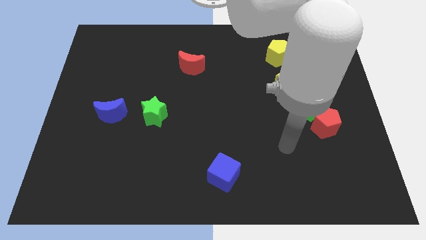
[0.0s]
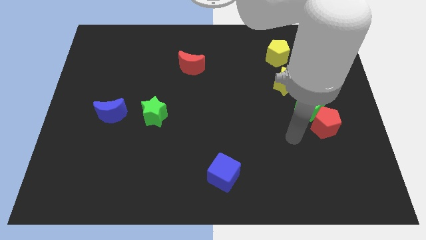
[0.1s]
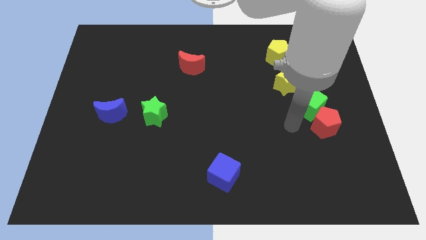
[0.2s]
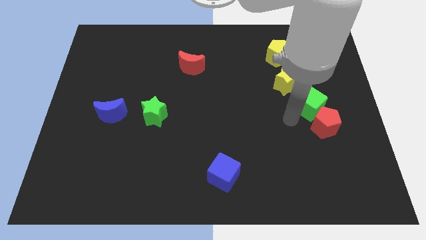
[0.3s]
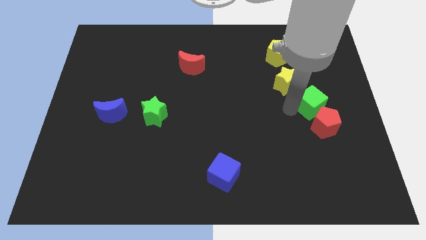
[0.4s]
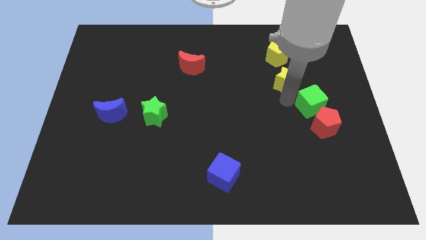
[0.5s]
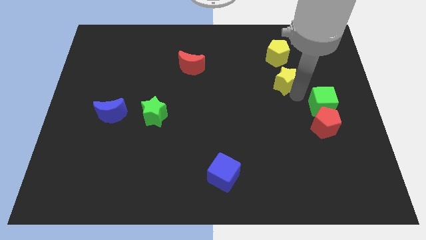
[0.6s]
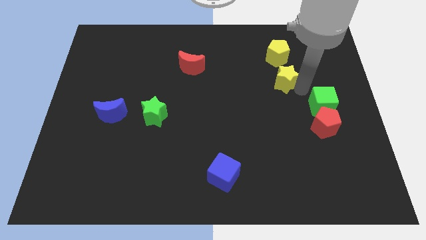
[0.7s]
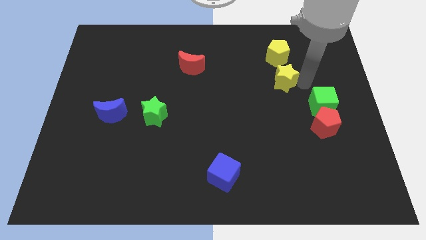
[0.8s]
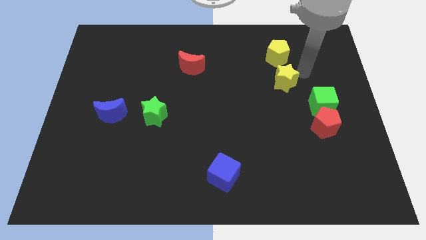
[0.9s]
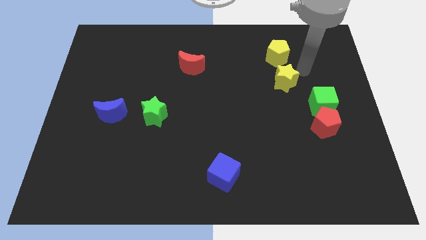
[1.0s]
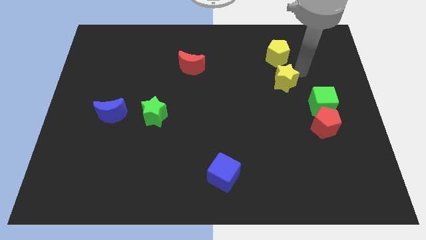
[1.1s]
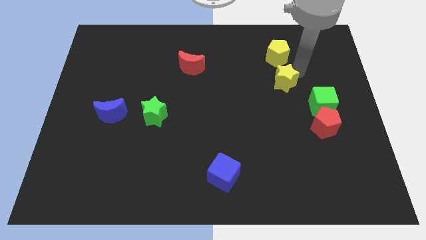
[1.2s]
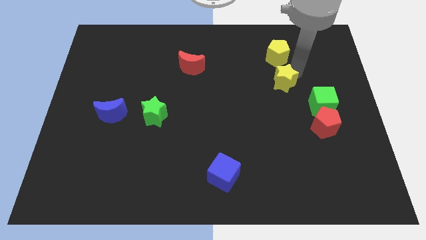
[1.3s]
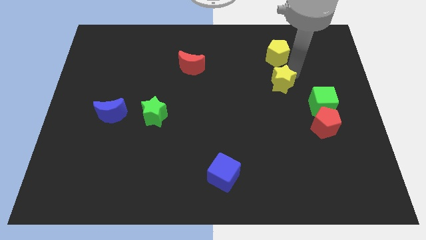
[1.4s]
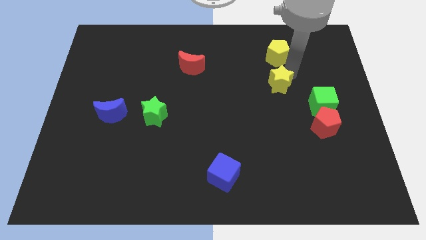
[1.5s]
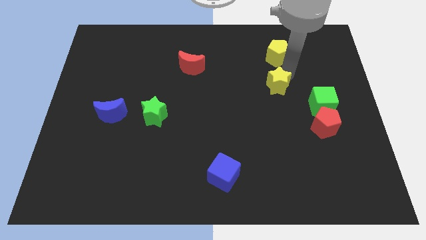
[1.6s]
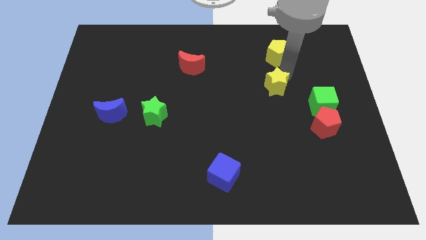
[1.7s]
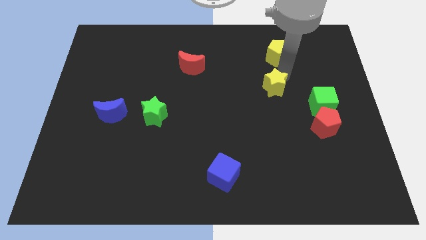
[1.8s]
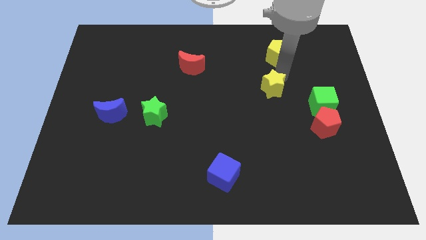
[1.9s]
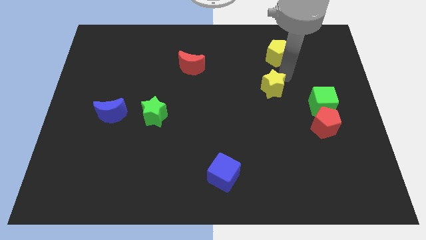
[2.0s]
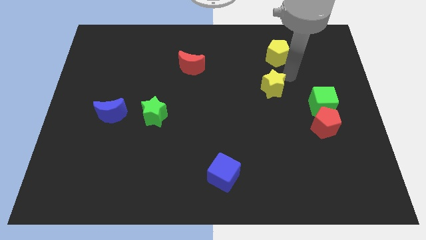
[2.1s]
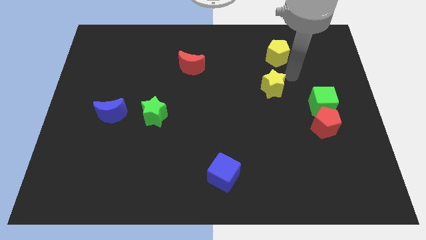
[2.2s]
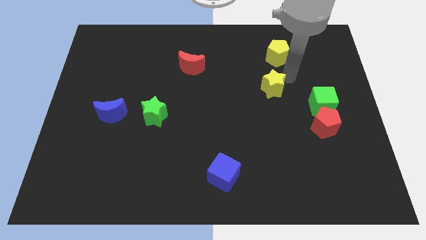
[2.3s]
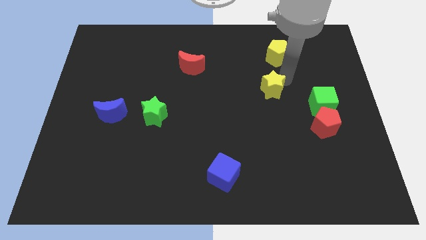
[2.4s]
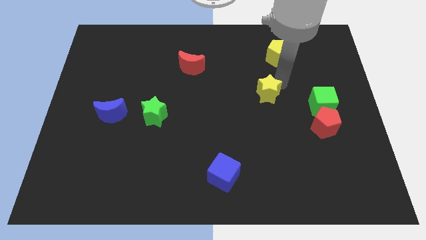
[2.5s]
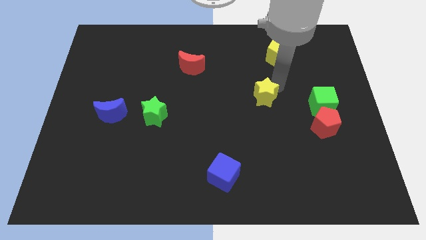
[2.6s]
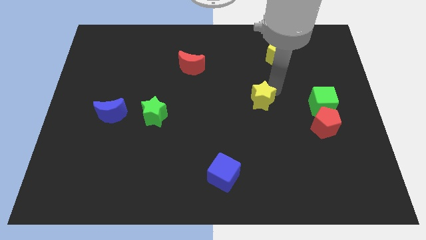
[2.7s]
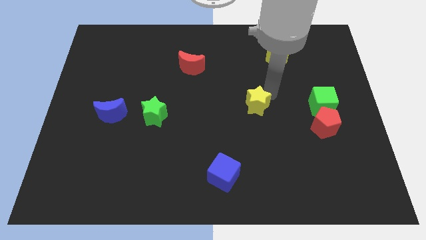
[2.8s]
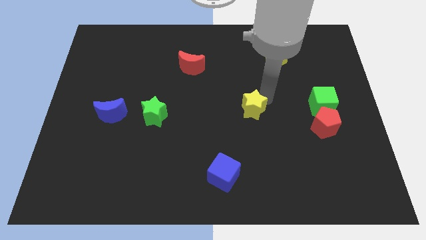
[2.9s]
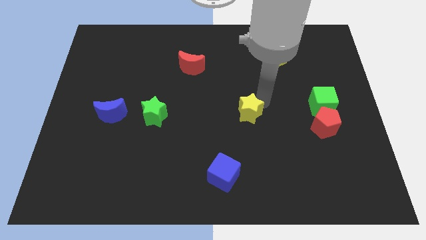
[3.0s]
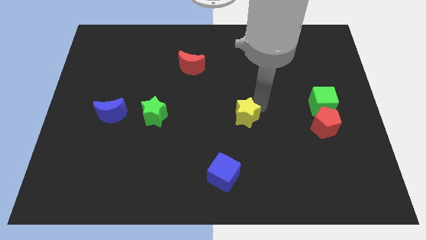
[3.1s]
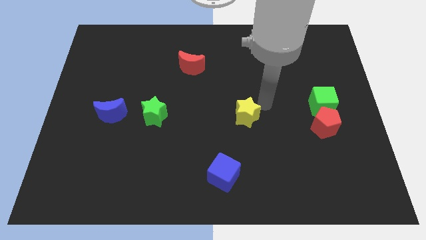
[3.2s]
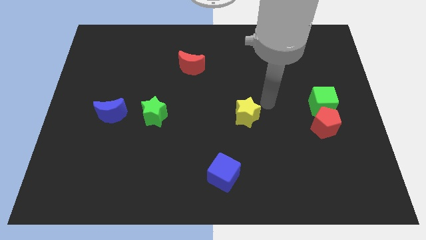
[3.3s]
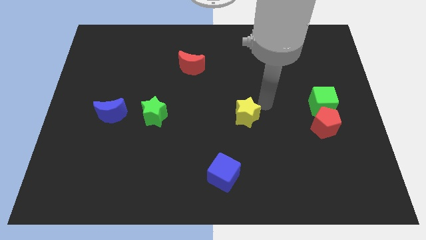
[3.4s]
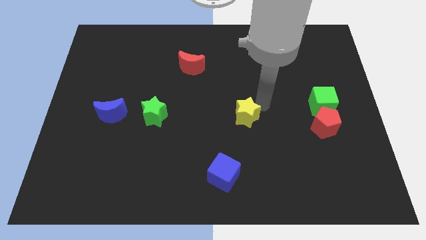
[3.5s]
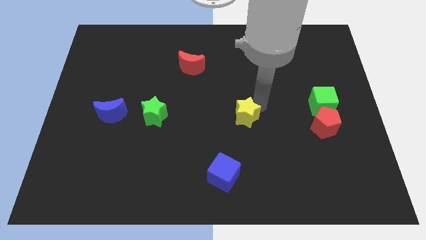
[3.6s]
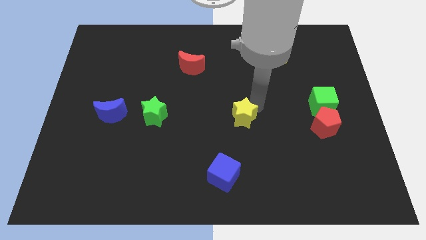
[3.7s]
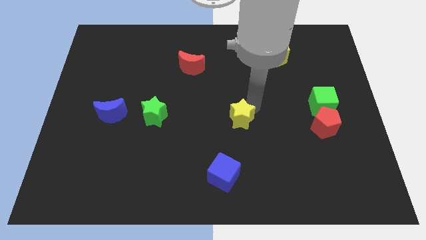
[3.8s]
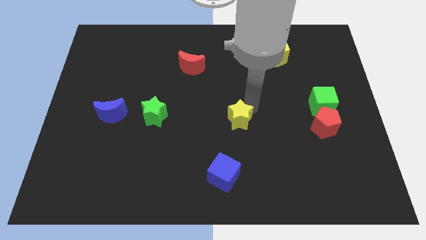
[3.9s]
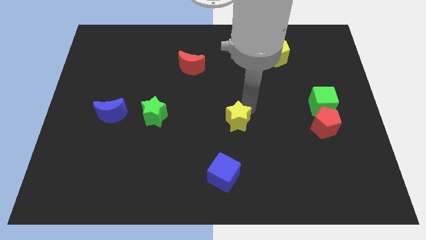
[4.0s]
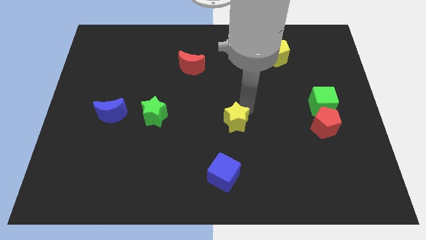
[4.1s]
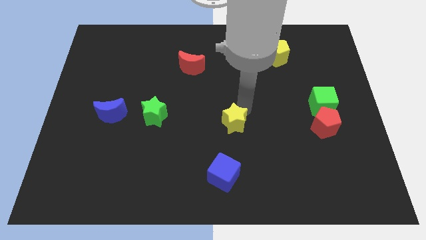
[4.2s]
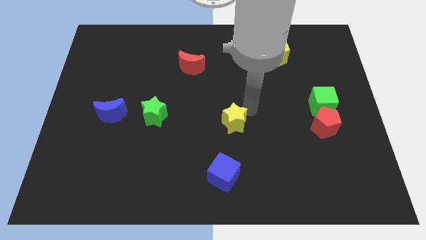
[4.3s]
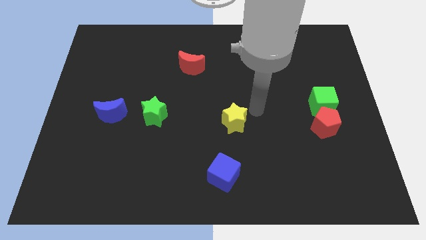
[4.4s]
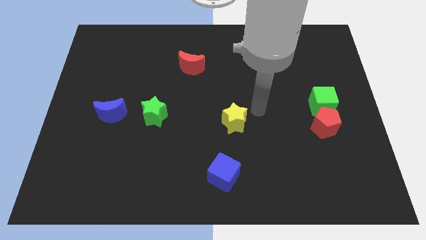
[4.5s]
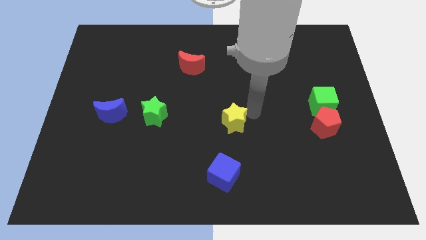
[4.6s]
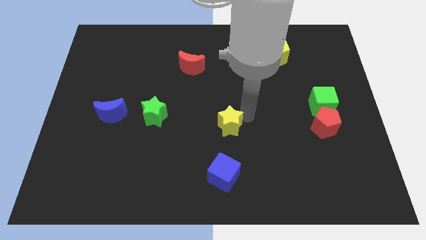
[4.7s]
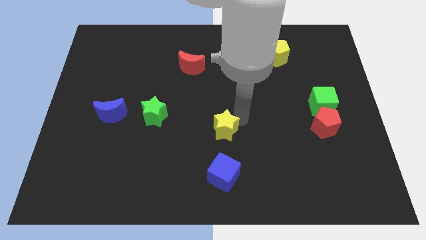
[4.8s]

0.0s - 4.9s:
slide the yellow star downwards and then to the left

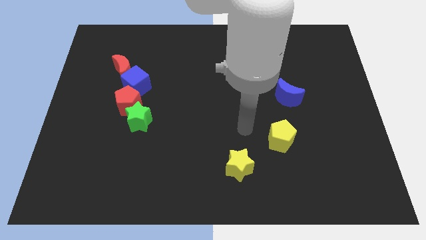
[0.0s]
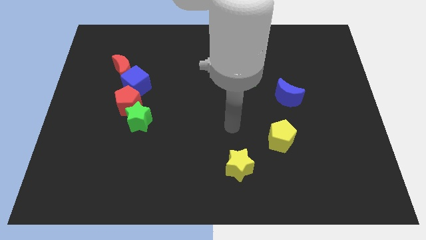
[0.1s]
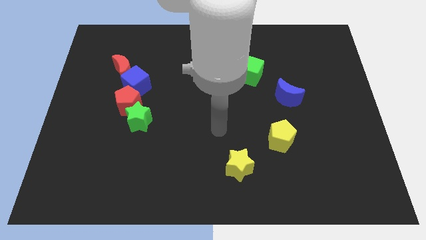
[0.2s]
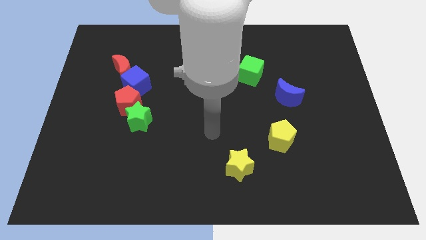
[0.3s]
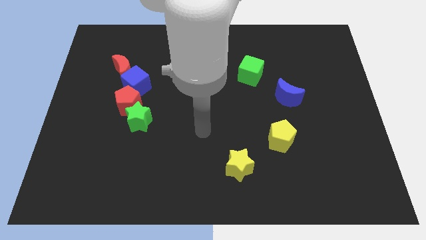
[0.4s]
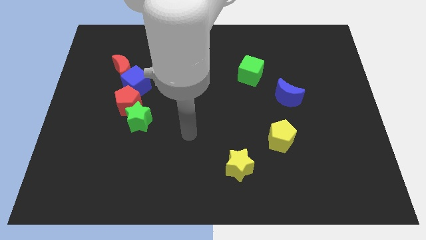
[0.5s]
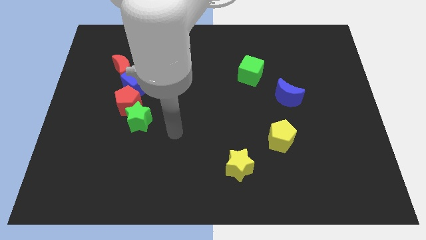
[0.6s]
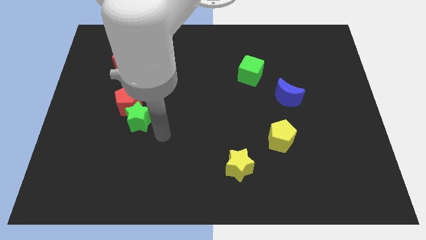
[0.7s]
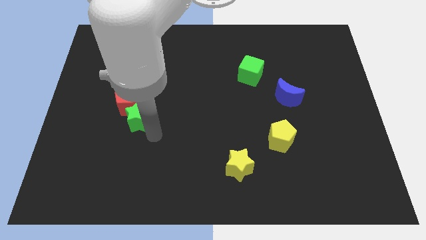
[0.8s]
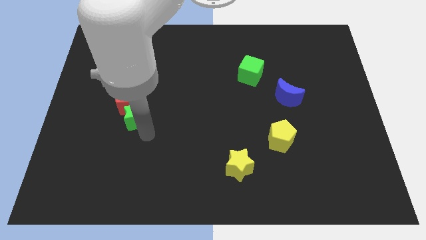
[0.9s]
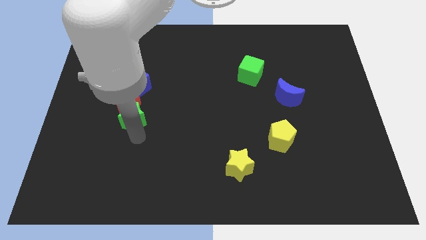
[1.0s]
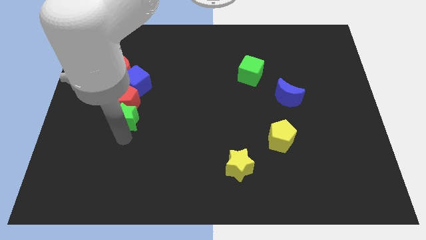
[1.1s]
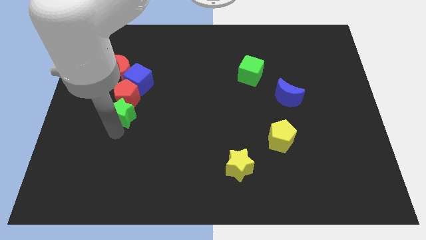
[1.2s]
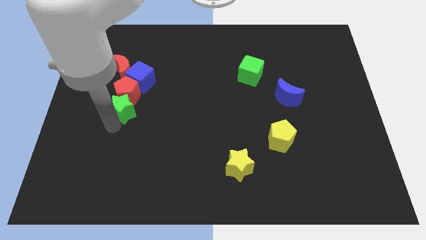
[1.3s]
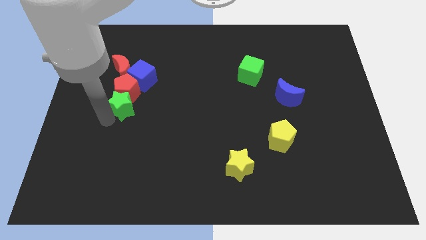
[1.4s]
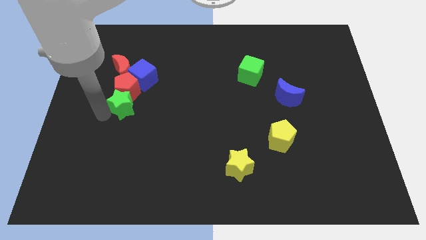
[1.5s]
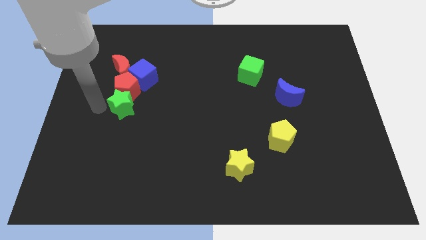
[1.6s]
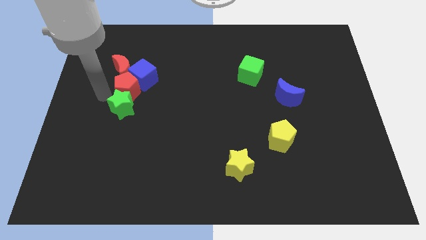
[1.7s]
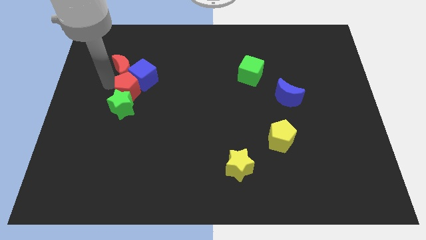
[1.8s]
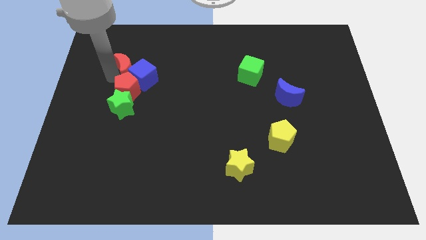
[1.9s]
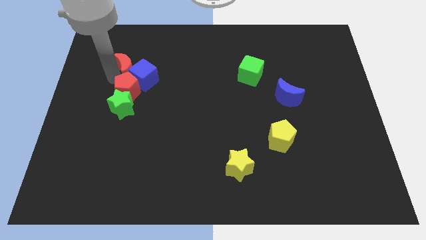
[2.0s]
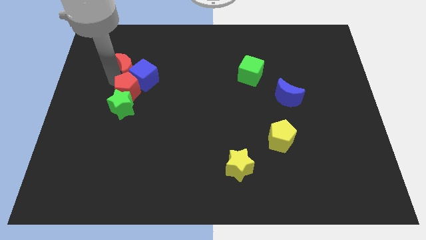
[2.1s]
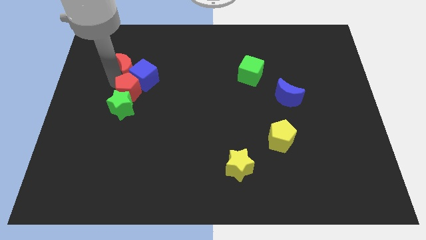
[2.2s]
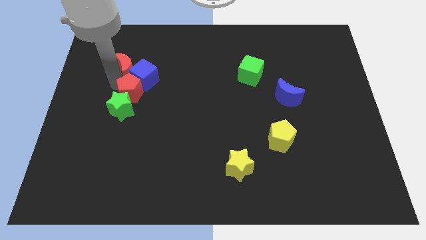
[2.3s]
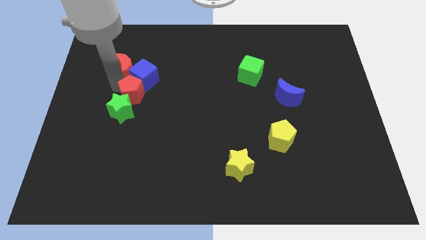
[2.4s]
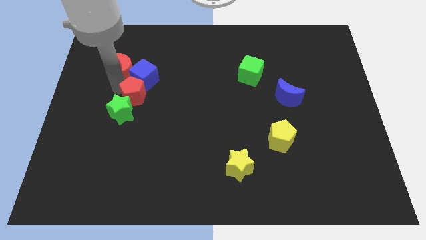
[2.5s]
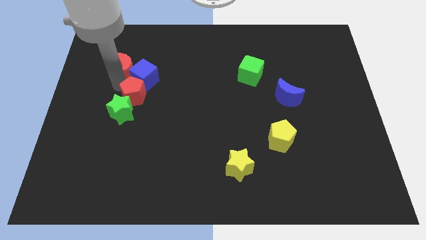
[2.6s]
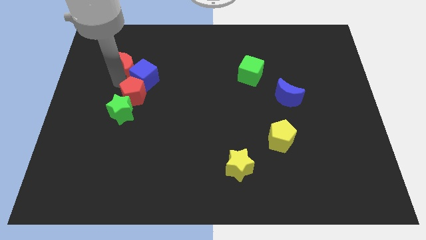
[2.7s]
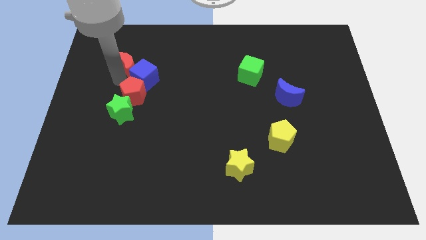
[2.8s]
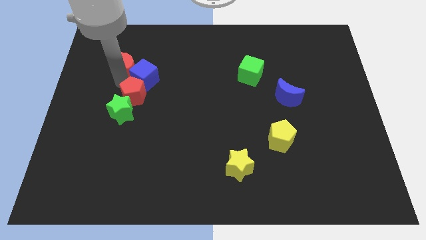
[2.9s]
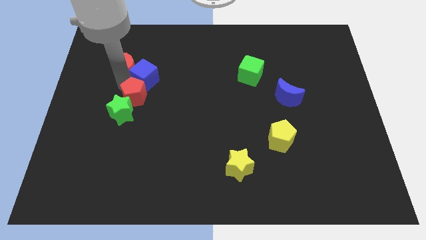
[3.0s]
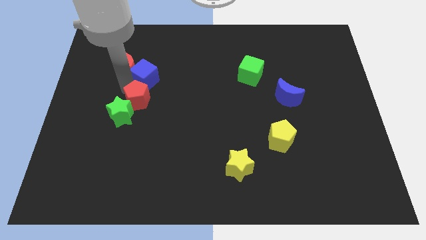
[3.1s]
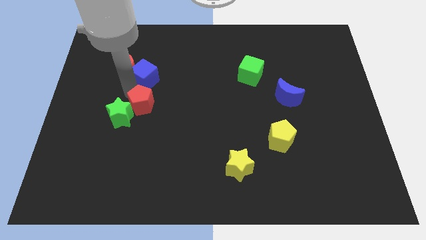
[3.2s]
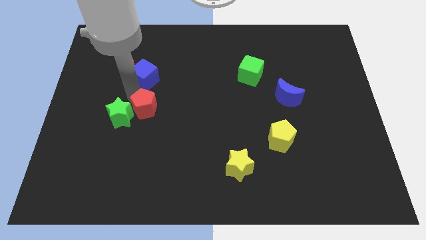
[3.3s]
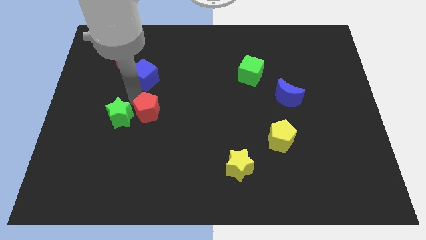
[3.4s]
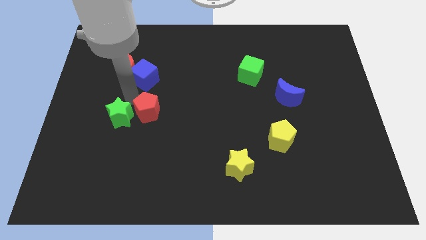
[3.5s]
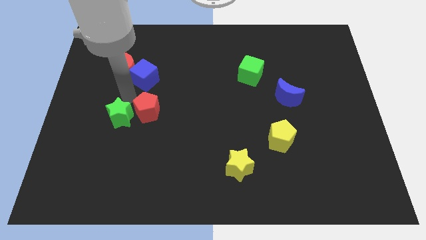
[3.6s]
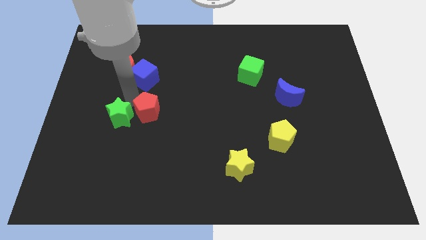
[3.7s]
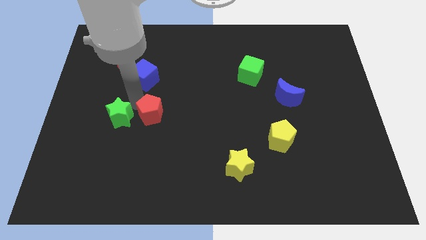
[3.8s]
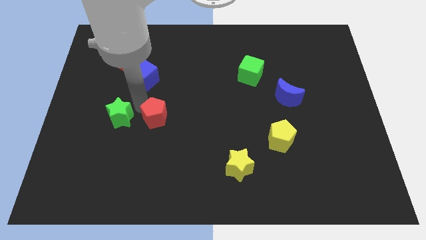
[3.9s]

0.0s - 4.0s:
push the red pentagon diagonally downwards and right a little bit
